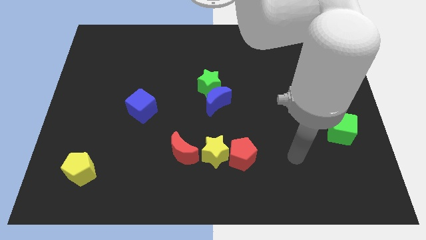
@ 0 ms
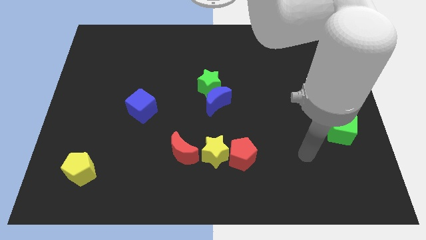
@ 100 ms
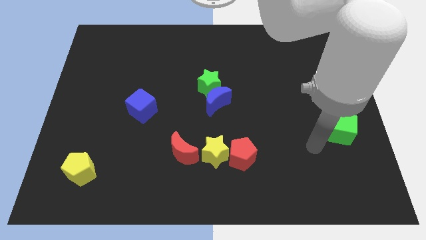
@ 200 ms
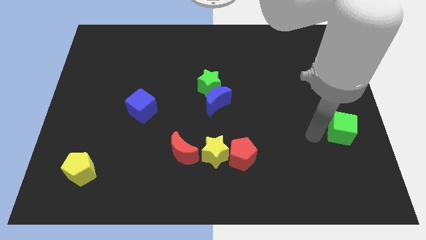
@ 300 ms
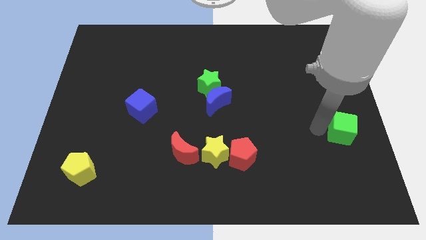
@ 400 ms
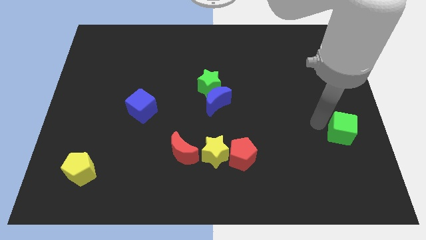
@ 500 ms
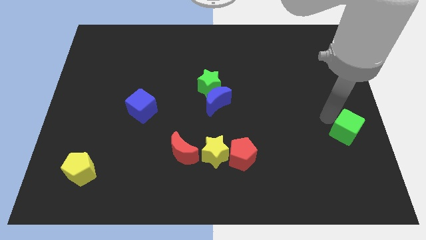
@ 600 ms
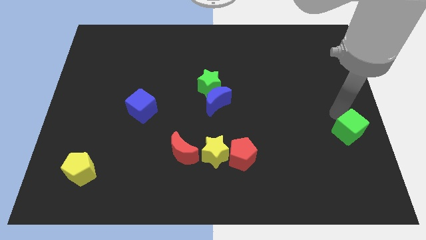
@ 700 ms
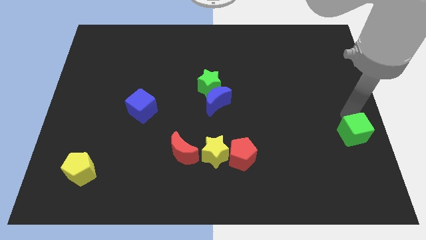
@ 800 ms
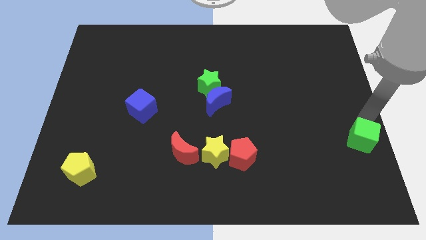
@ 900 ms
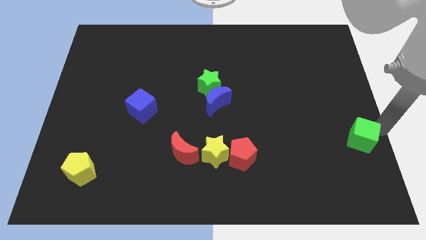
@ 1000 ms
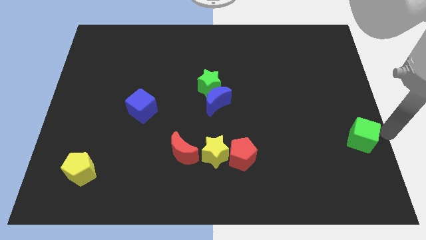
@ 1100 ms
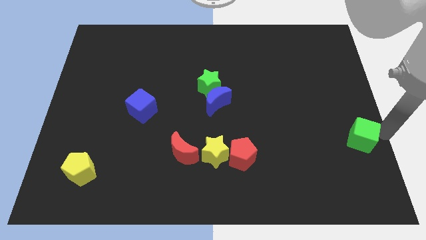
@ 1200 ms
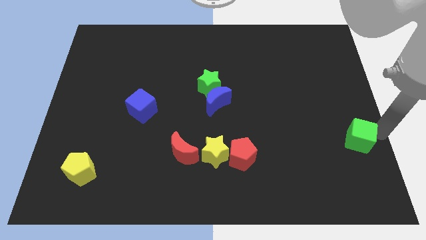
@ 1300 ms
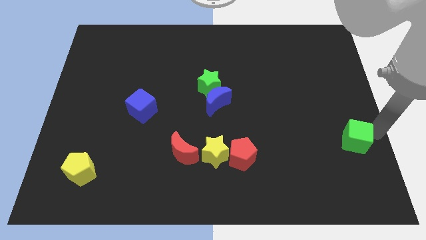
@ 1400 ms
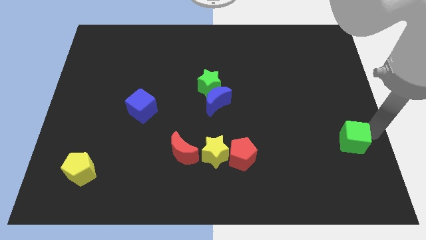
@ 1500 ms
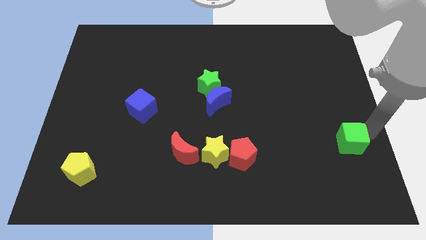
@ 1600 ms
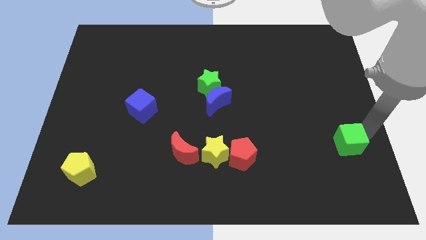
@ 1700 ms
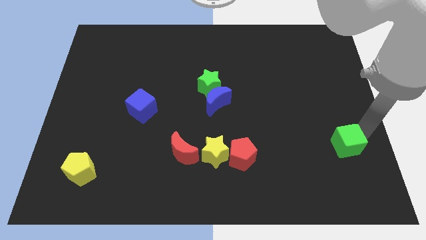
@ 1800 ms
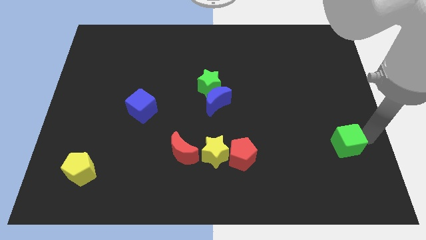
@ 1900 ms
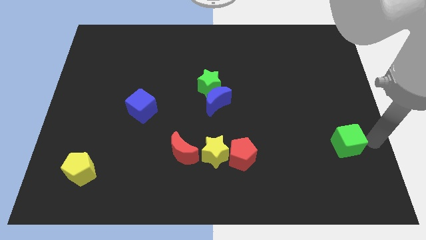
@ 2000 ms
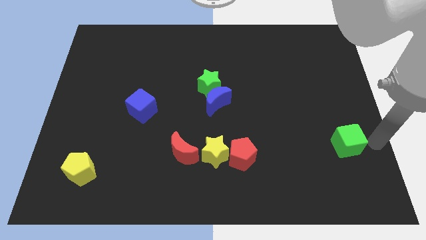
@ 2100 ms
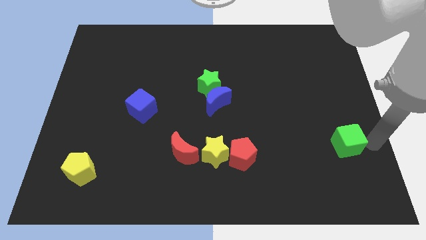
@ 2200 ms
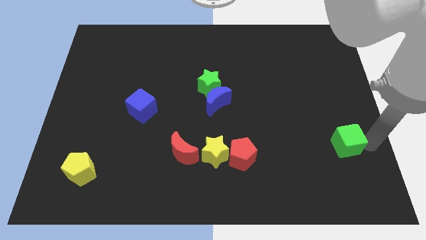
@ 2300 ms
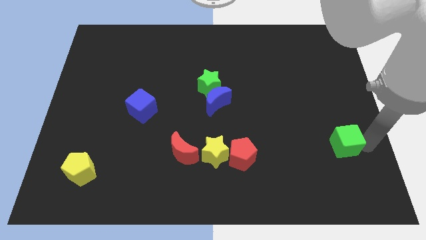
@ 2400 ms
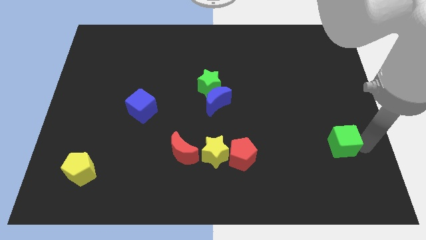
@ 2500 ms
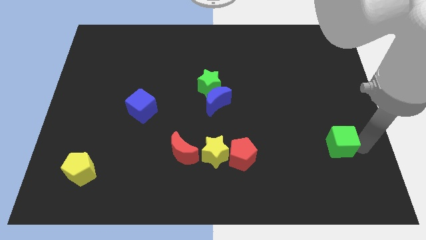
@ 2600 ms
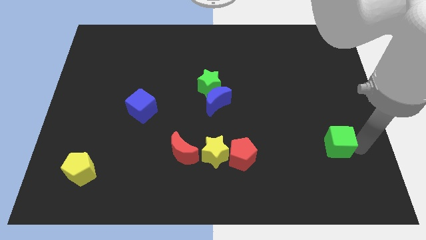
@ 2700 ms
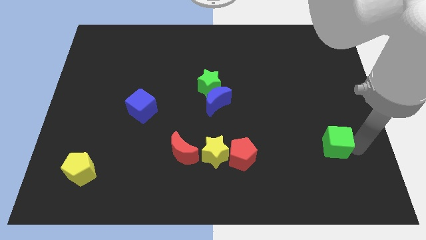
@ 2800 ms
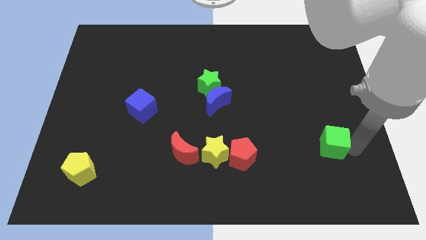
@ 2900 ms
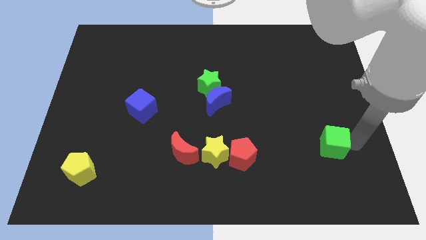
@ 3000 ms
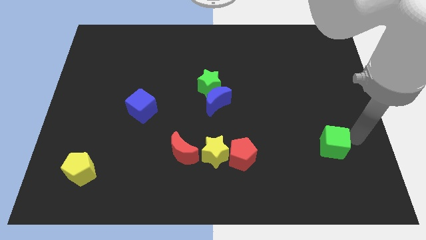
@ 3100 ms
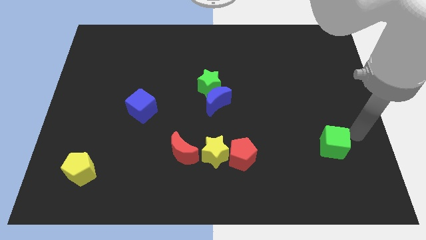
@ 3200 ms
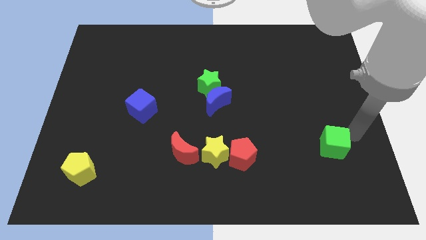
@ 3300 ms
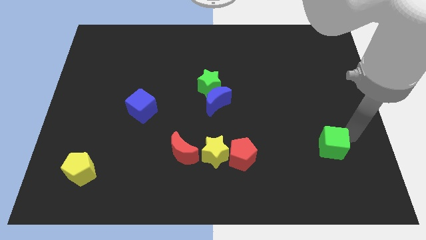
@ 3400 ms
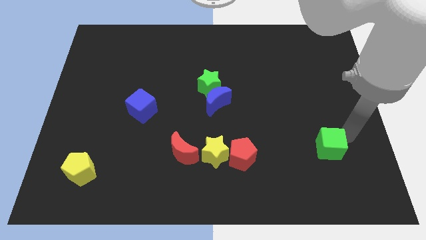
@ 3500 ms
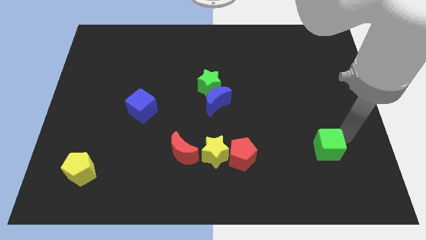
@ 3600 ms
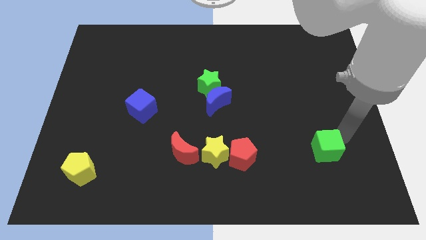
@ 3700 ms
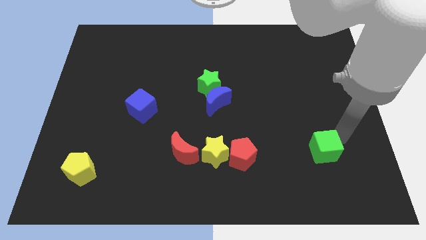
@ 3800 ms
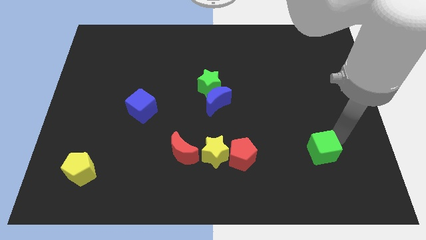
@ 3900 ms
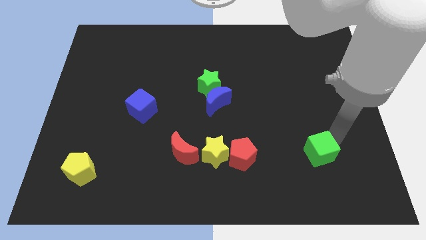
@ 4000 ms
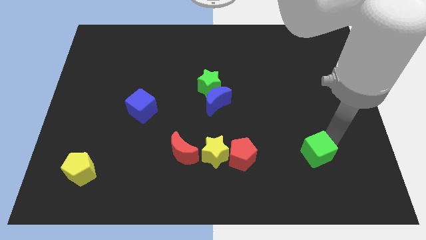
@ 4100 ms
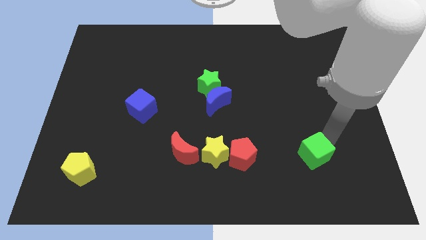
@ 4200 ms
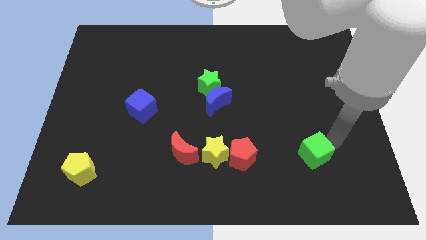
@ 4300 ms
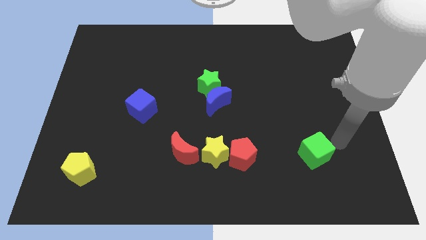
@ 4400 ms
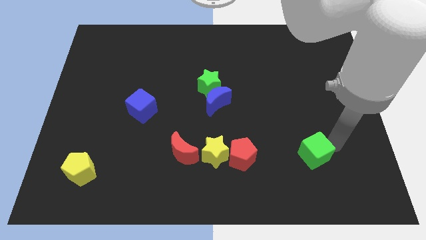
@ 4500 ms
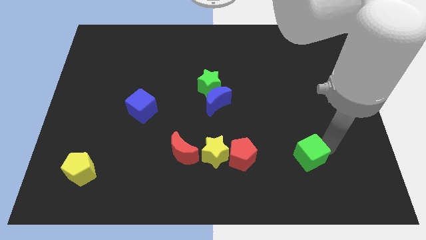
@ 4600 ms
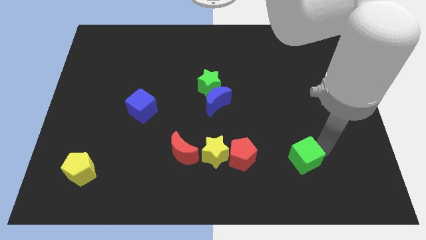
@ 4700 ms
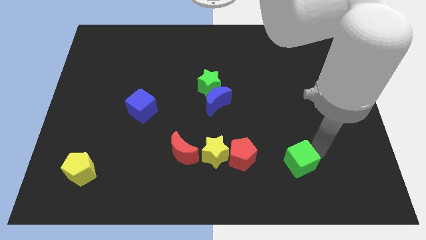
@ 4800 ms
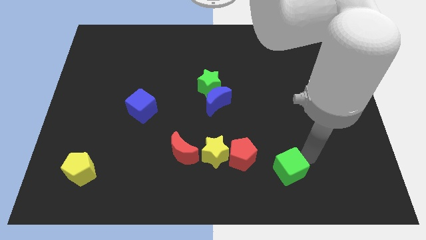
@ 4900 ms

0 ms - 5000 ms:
put the green cube to the bottom right of the red pentagon

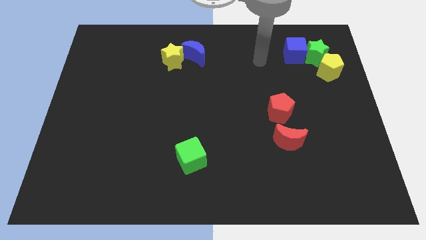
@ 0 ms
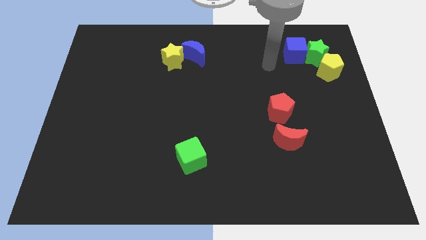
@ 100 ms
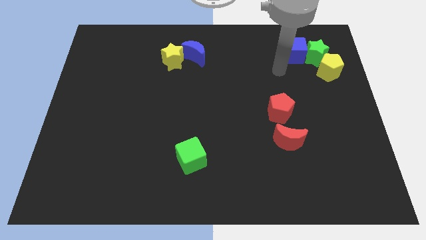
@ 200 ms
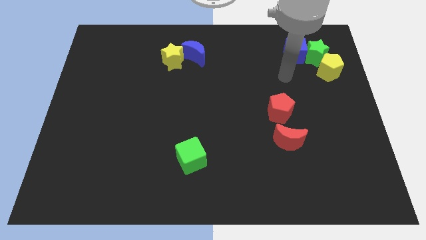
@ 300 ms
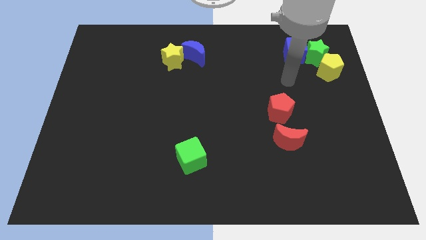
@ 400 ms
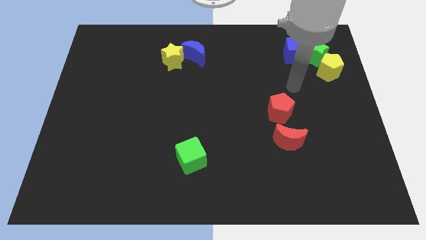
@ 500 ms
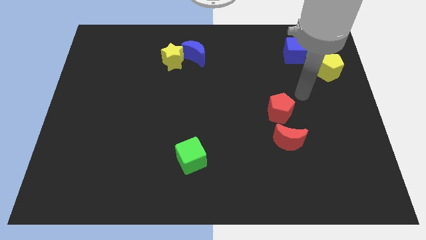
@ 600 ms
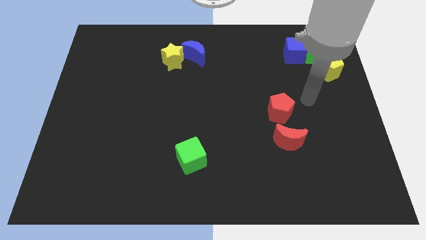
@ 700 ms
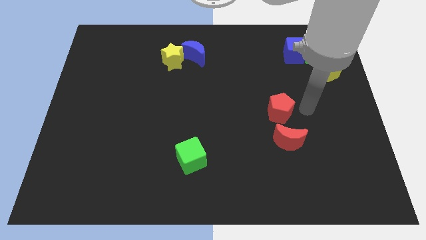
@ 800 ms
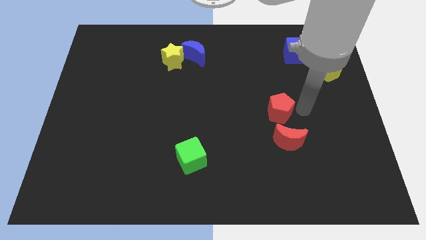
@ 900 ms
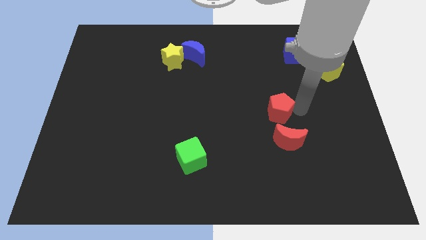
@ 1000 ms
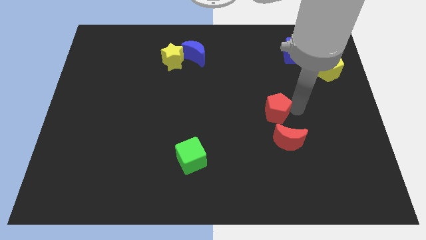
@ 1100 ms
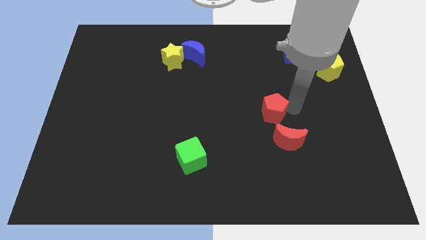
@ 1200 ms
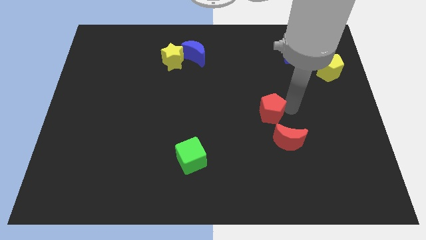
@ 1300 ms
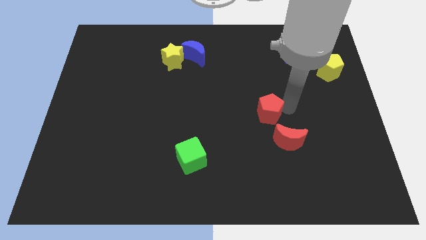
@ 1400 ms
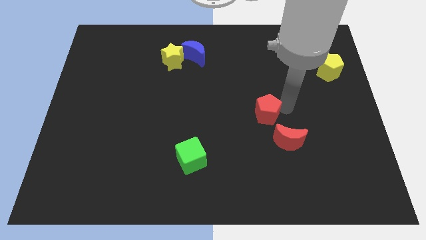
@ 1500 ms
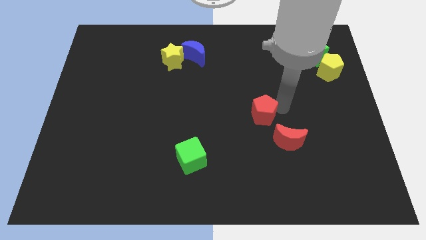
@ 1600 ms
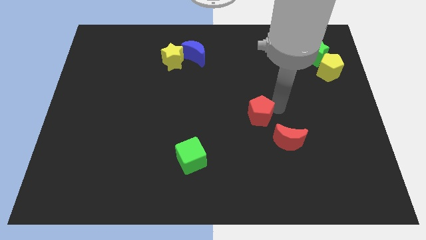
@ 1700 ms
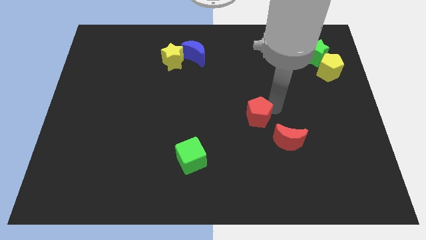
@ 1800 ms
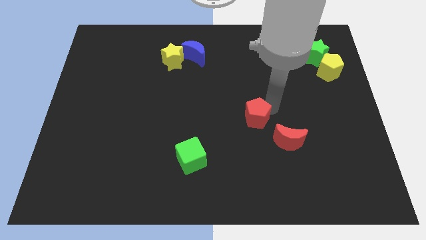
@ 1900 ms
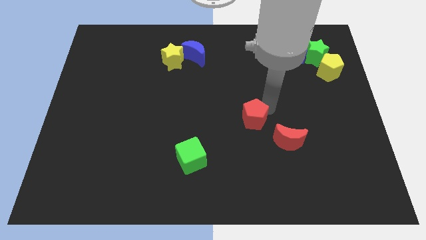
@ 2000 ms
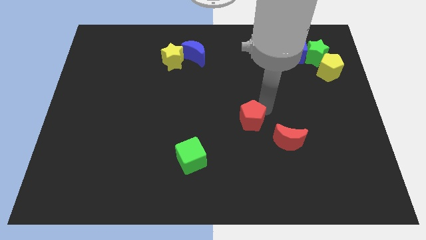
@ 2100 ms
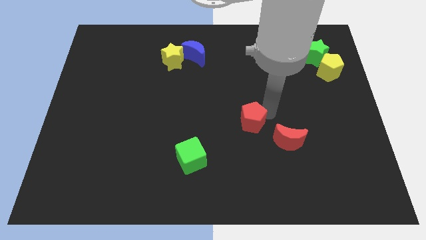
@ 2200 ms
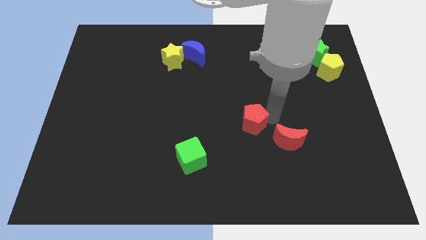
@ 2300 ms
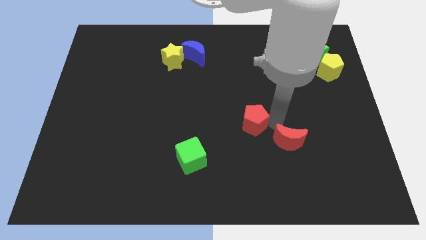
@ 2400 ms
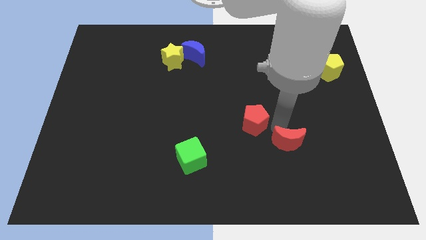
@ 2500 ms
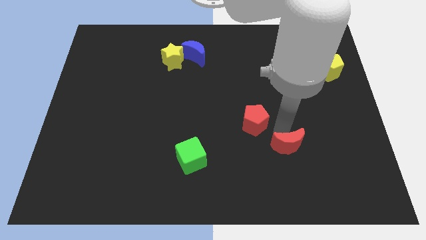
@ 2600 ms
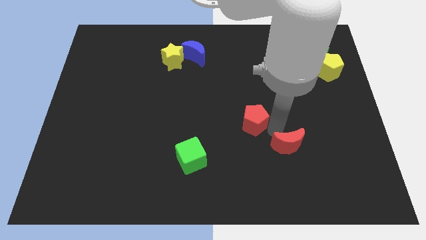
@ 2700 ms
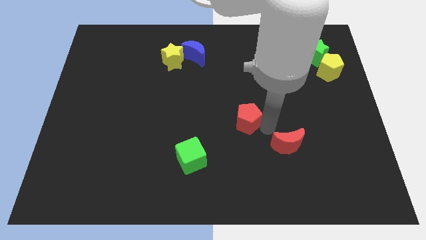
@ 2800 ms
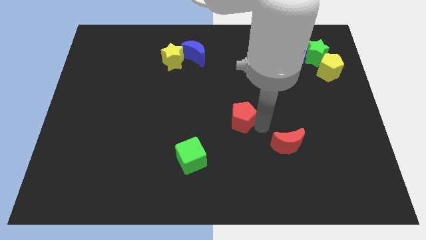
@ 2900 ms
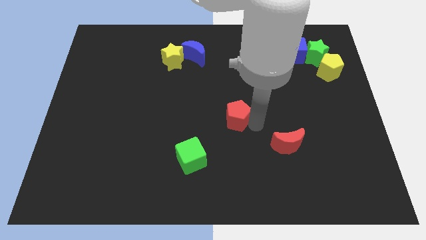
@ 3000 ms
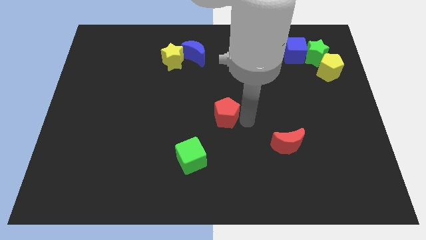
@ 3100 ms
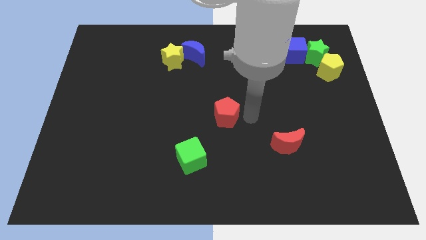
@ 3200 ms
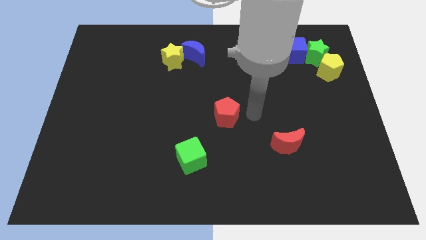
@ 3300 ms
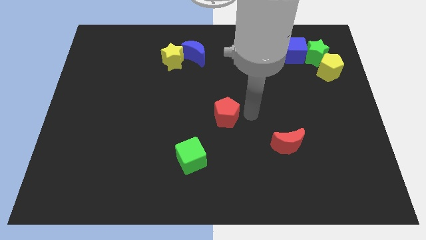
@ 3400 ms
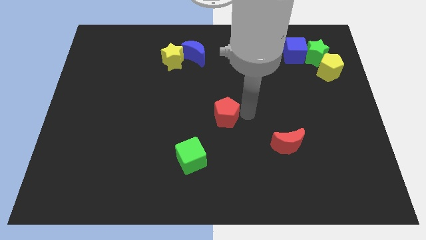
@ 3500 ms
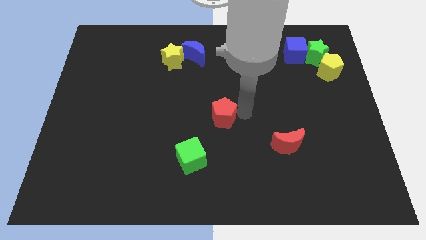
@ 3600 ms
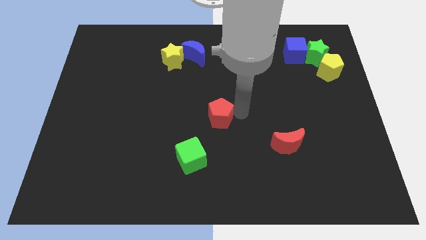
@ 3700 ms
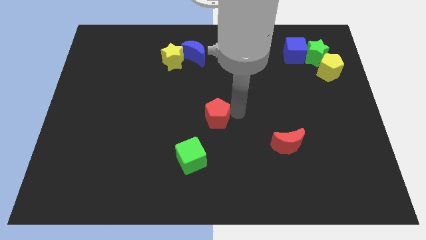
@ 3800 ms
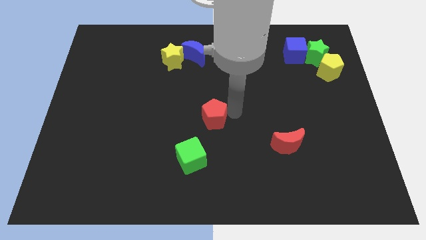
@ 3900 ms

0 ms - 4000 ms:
put the red pentagon above the green cube
